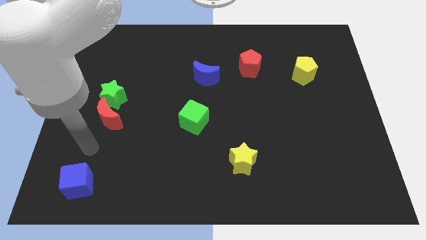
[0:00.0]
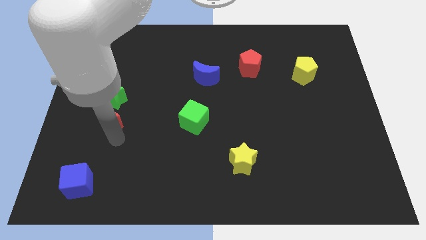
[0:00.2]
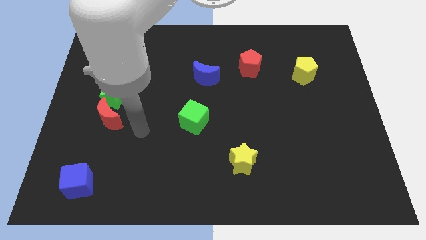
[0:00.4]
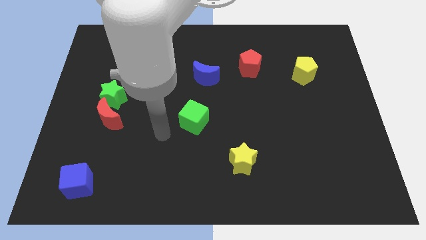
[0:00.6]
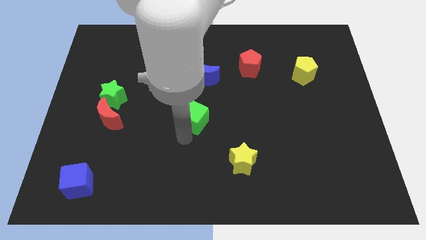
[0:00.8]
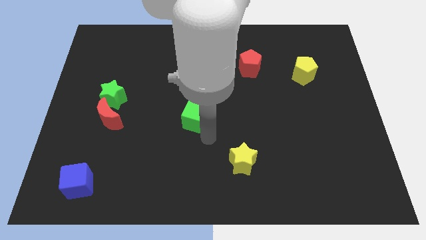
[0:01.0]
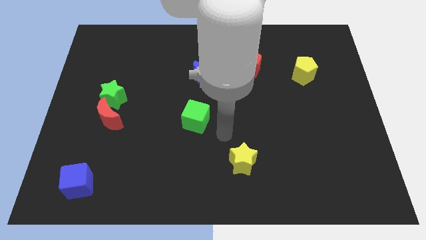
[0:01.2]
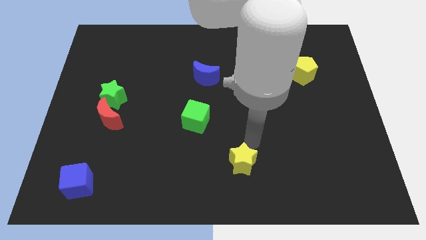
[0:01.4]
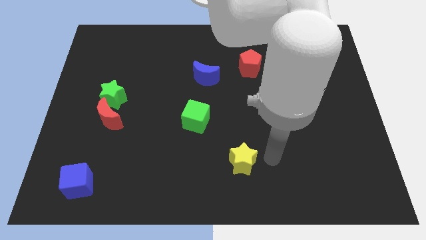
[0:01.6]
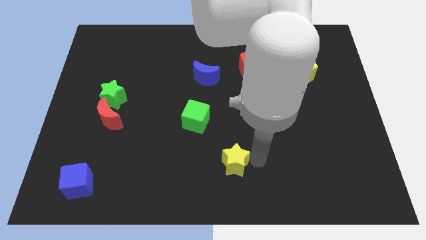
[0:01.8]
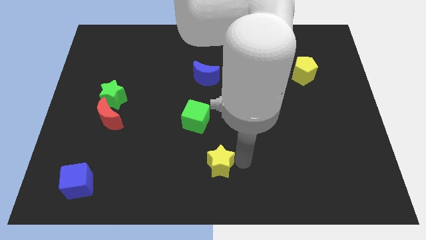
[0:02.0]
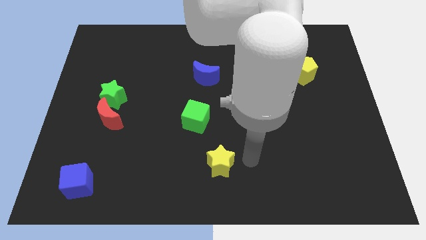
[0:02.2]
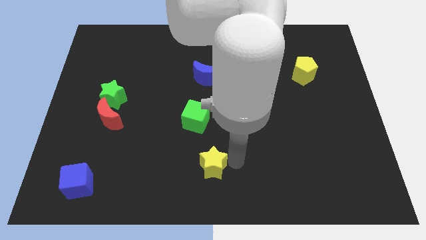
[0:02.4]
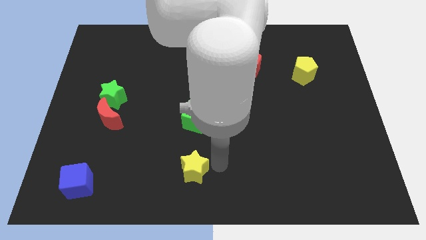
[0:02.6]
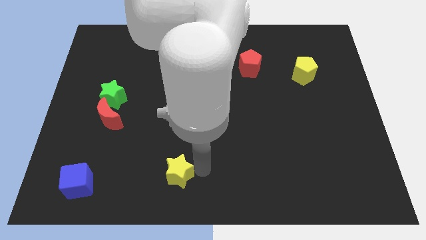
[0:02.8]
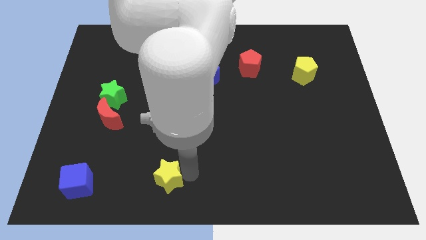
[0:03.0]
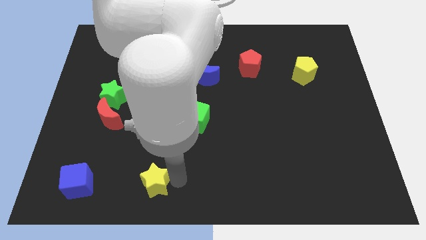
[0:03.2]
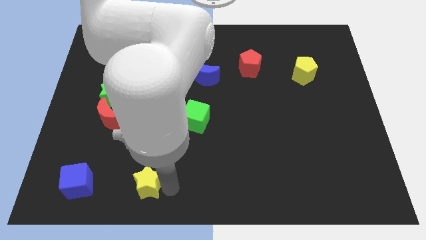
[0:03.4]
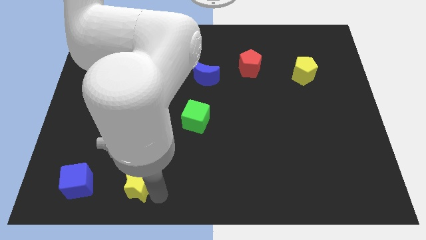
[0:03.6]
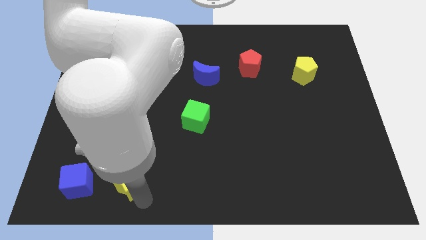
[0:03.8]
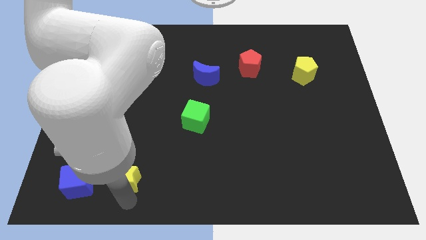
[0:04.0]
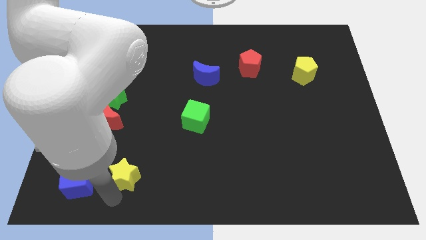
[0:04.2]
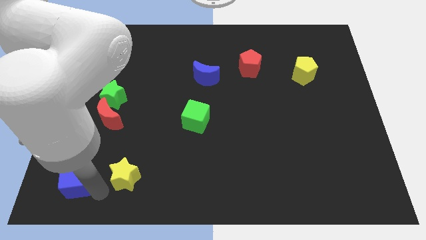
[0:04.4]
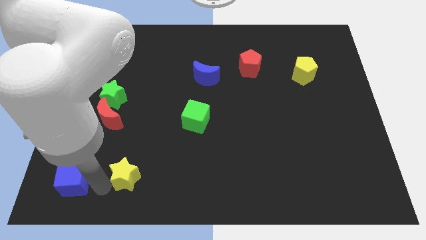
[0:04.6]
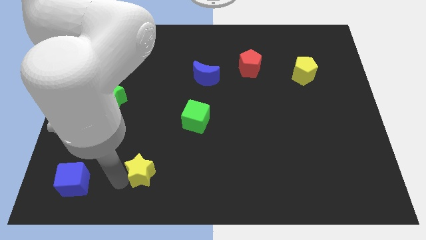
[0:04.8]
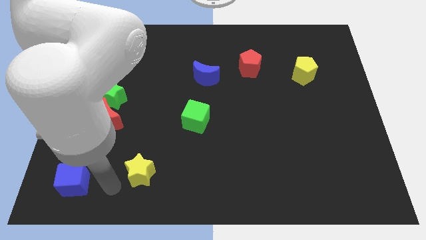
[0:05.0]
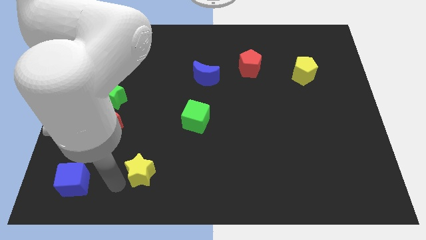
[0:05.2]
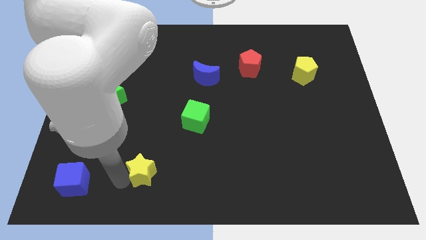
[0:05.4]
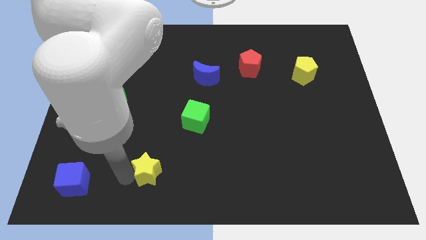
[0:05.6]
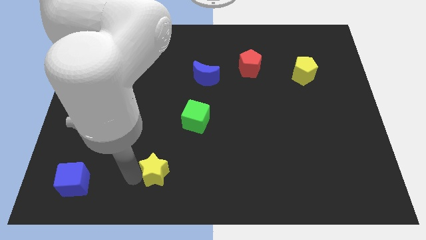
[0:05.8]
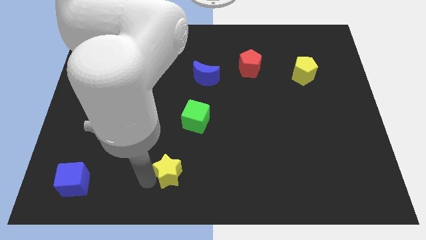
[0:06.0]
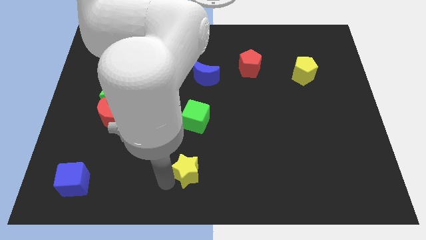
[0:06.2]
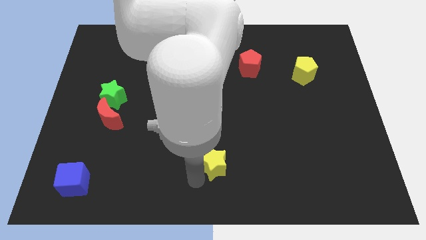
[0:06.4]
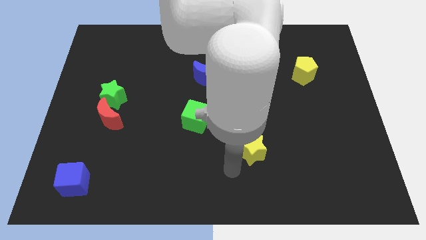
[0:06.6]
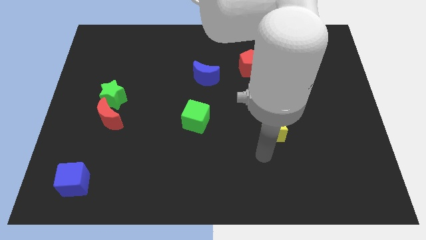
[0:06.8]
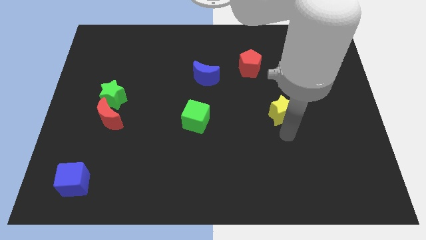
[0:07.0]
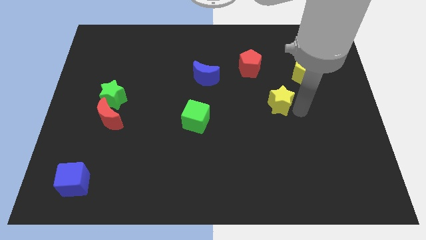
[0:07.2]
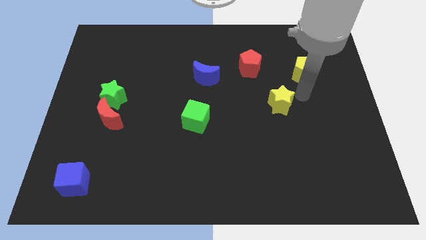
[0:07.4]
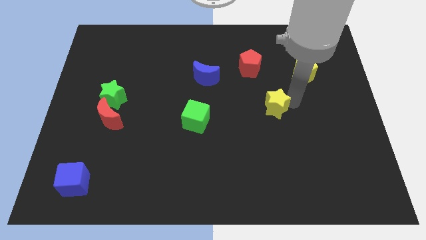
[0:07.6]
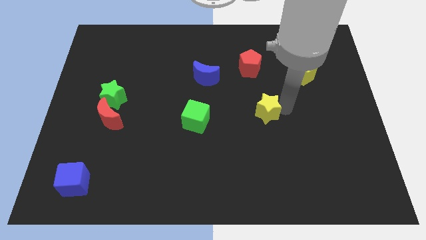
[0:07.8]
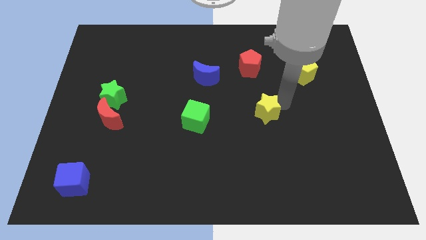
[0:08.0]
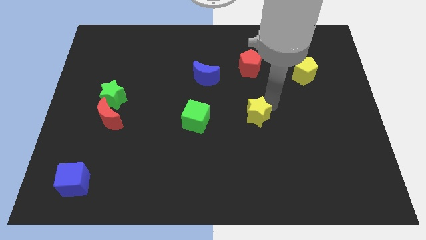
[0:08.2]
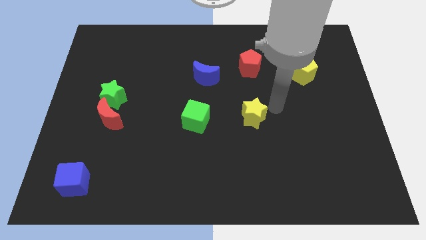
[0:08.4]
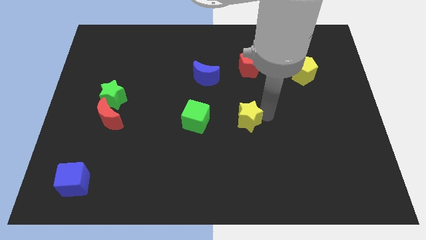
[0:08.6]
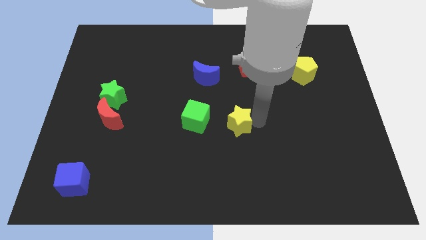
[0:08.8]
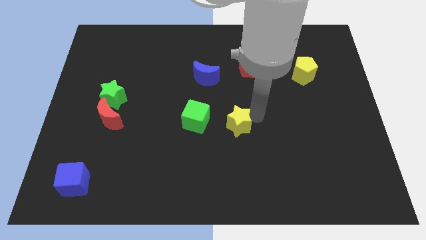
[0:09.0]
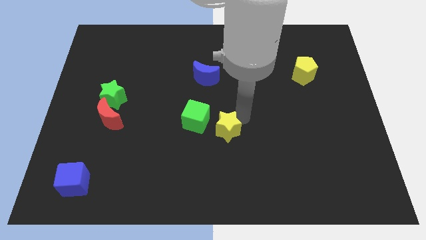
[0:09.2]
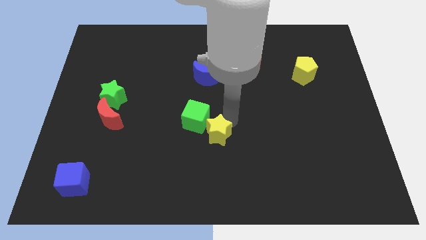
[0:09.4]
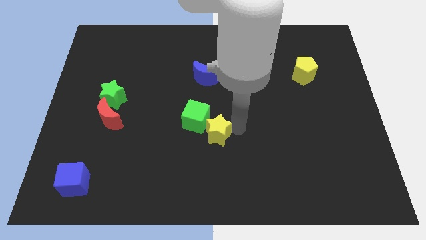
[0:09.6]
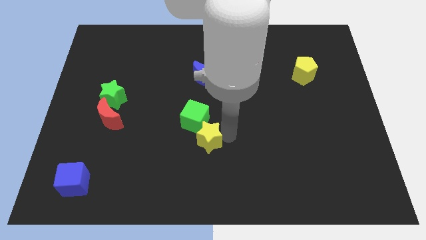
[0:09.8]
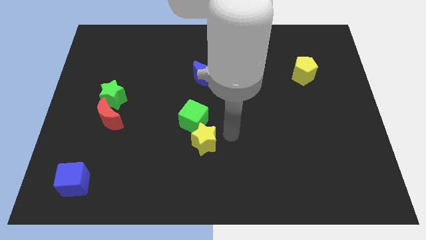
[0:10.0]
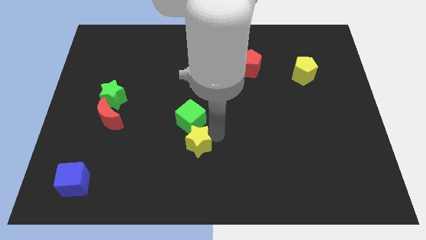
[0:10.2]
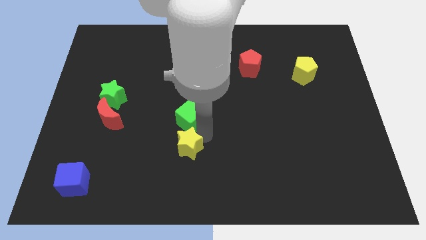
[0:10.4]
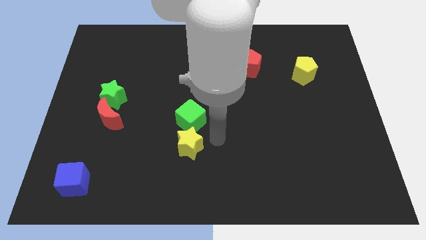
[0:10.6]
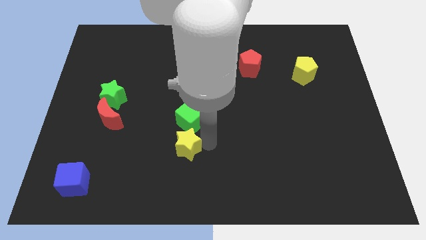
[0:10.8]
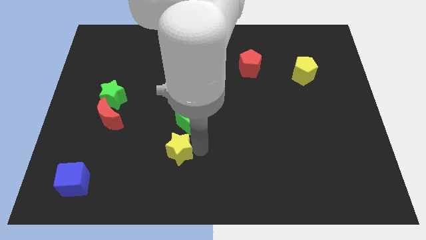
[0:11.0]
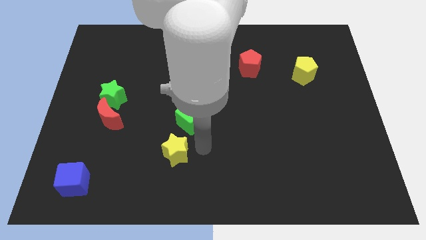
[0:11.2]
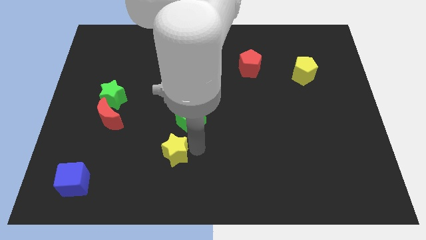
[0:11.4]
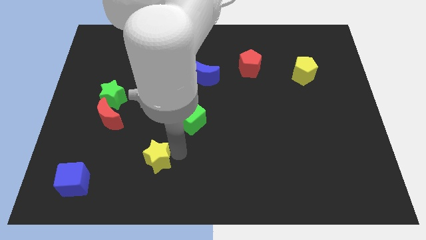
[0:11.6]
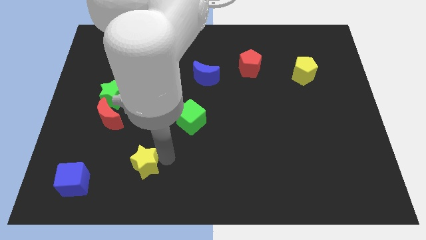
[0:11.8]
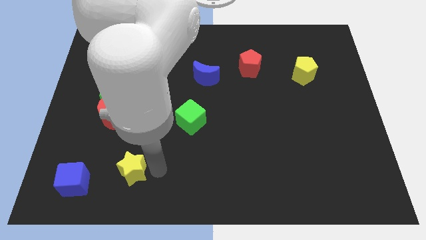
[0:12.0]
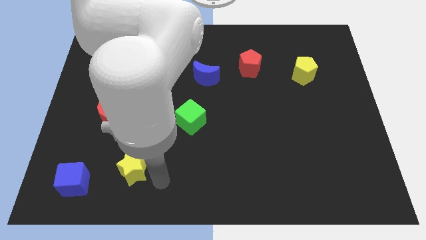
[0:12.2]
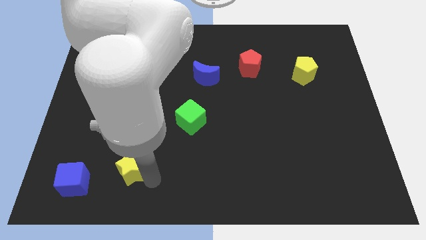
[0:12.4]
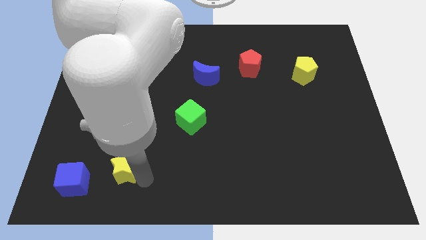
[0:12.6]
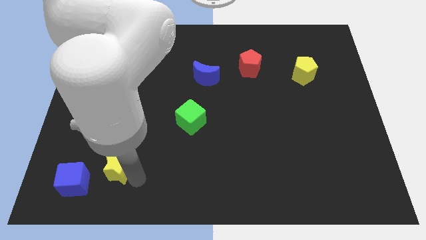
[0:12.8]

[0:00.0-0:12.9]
slide the yellow star to the bottom side of the red moon
